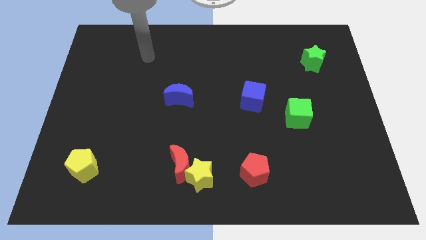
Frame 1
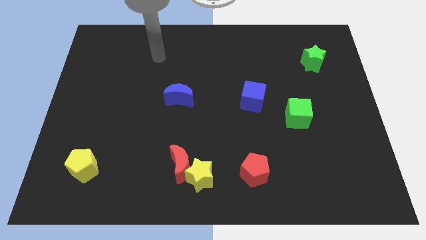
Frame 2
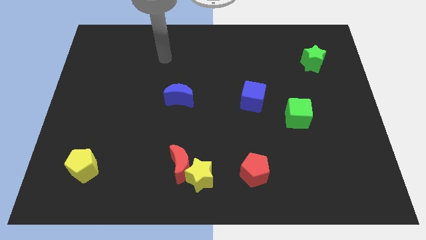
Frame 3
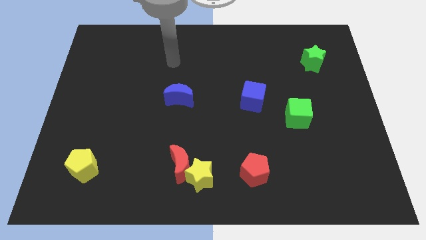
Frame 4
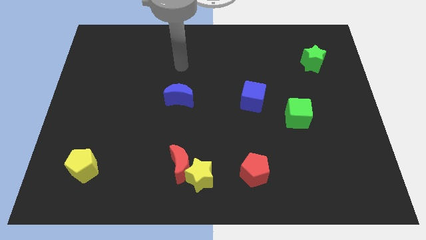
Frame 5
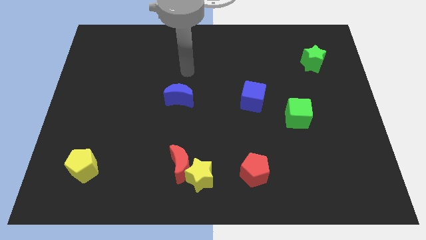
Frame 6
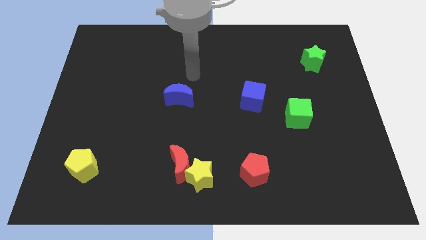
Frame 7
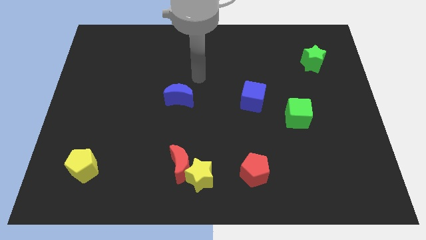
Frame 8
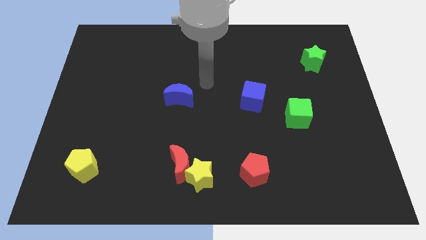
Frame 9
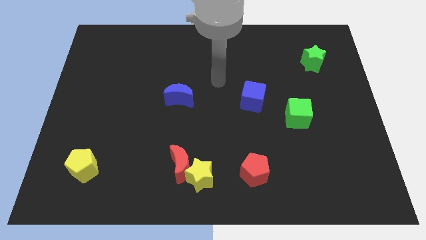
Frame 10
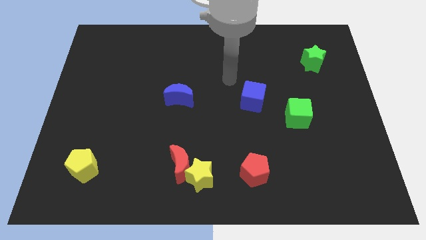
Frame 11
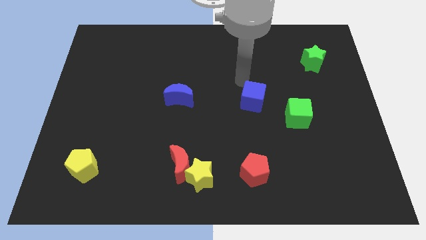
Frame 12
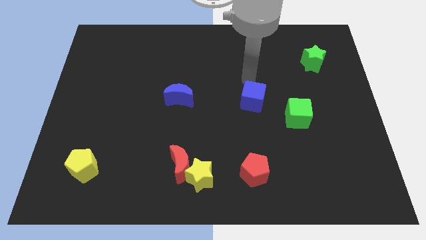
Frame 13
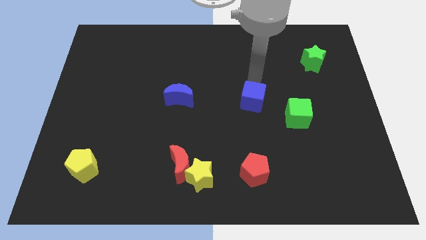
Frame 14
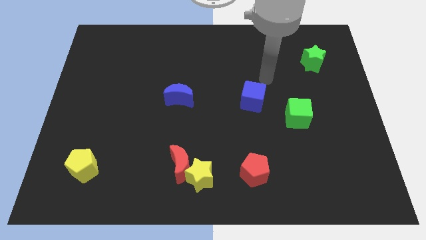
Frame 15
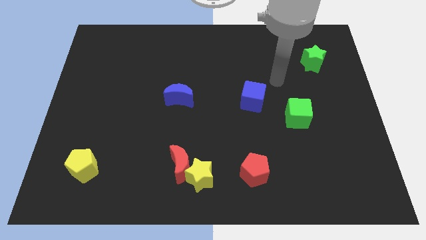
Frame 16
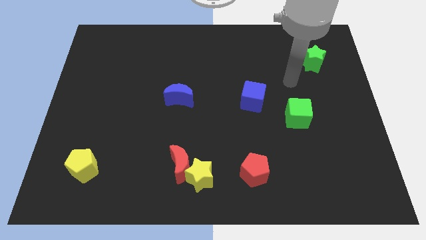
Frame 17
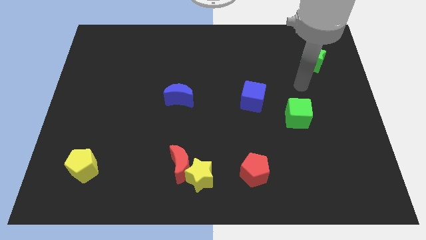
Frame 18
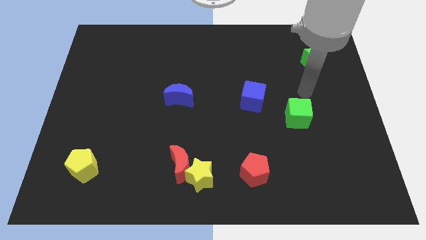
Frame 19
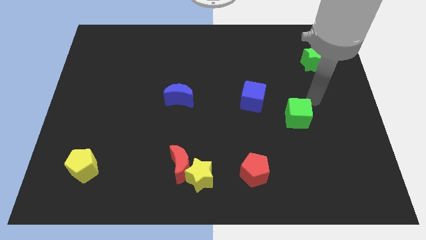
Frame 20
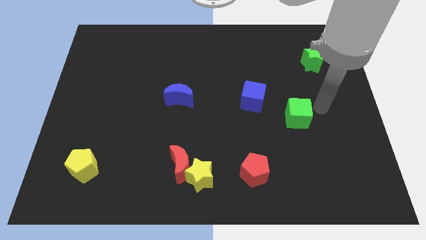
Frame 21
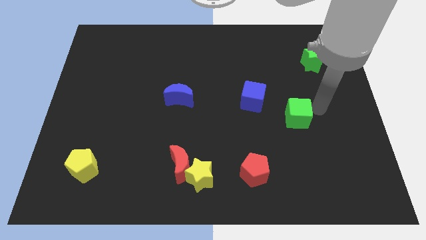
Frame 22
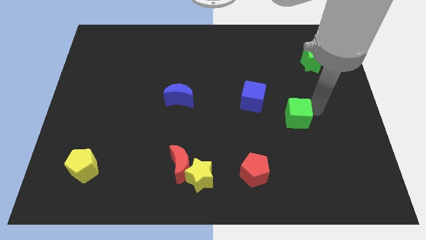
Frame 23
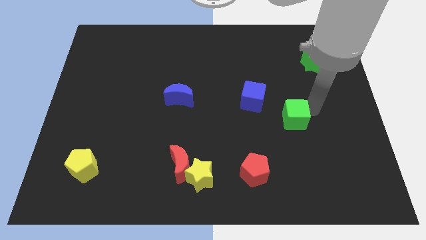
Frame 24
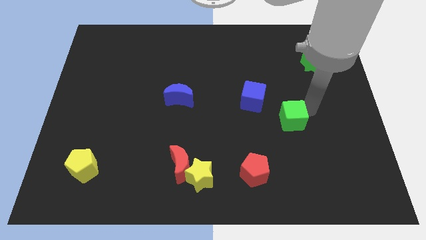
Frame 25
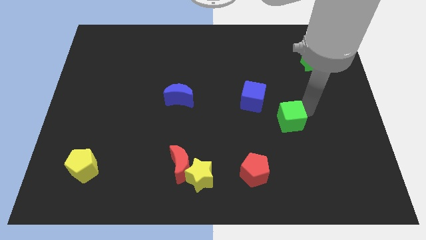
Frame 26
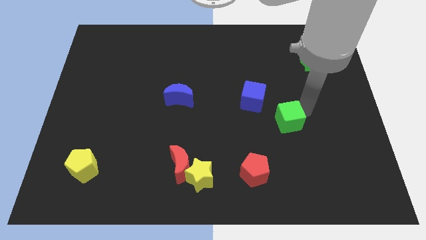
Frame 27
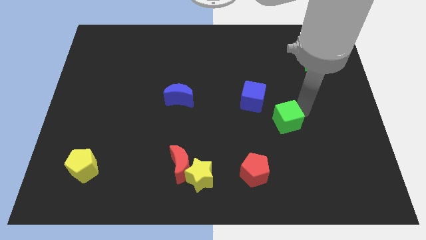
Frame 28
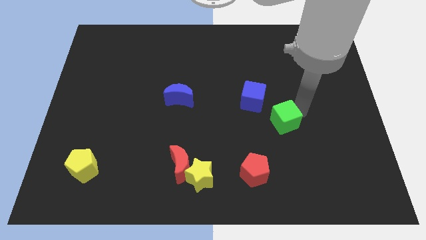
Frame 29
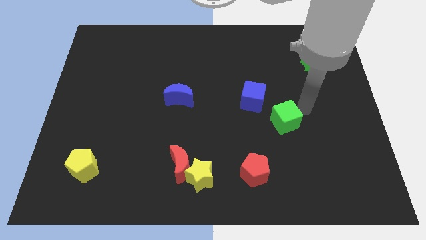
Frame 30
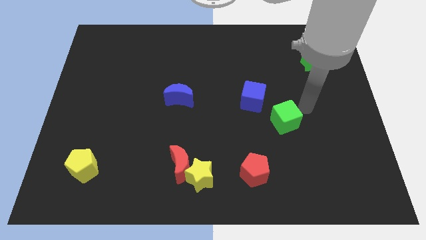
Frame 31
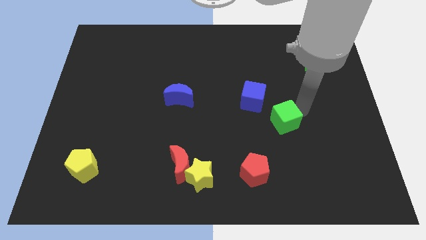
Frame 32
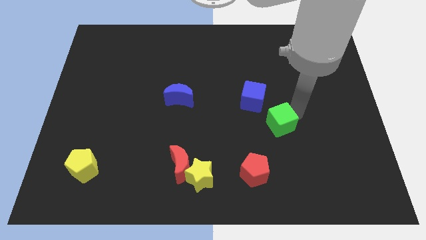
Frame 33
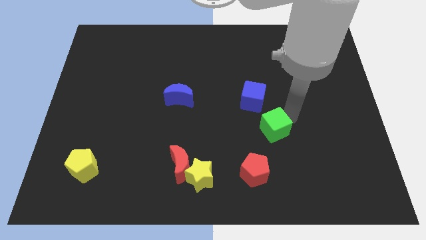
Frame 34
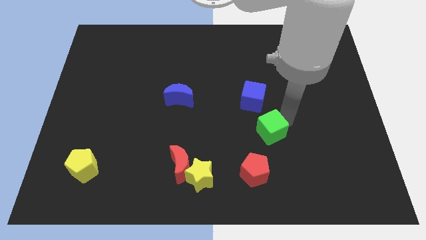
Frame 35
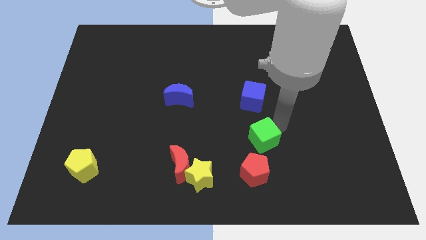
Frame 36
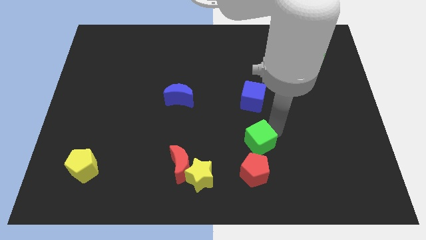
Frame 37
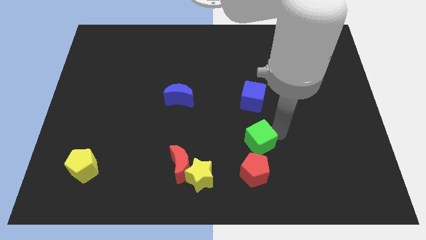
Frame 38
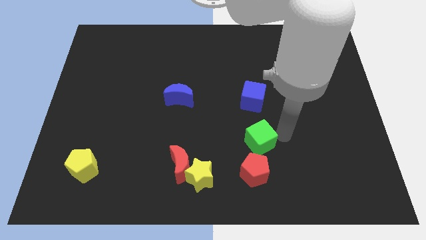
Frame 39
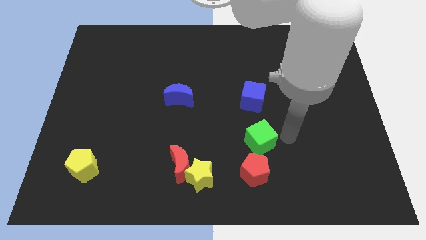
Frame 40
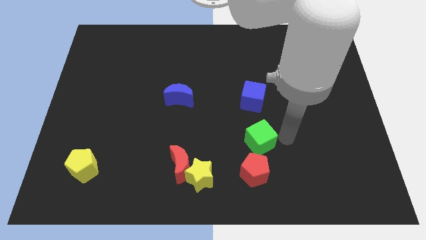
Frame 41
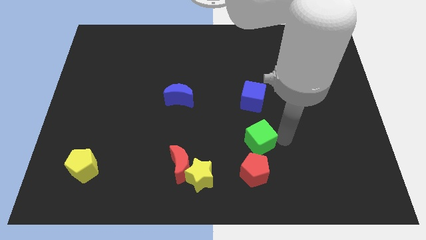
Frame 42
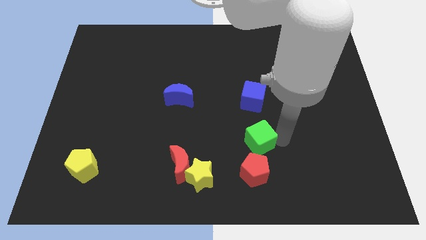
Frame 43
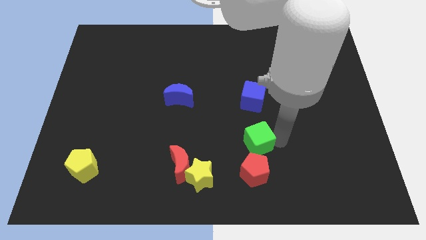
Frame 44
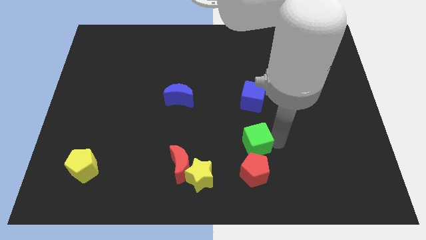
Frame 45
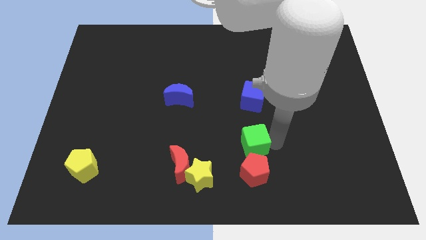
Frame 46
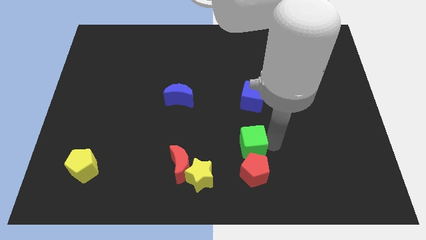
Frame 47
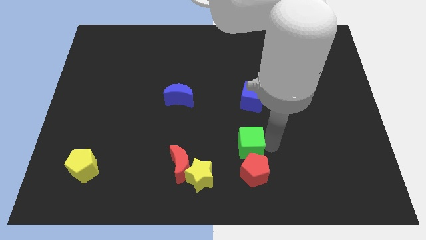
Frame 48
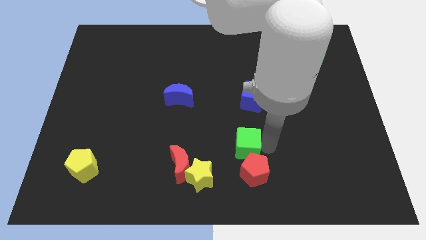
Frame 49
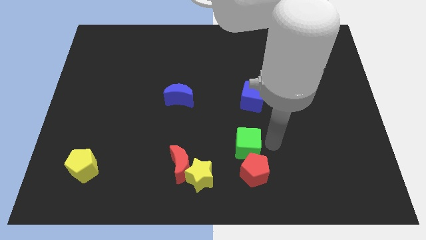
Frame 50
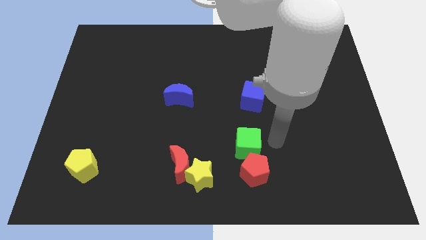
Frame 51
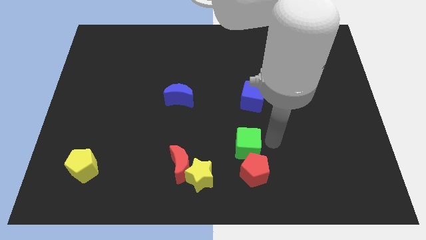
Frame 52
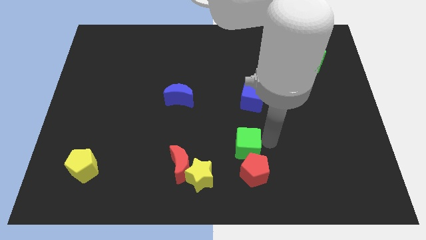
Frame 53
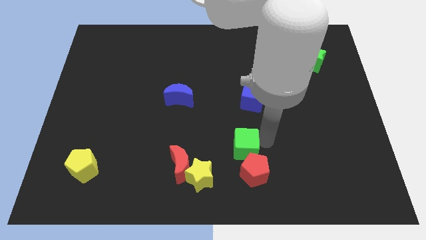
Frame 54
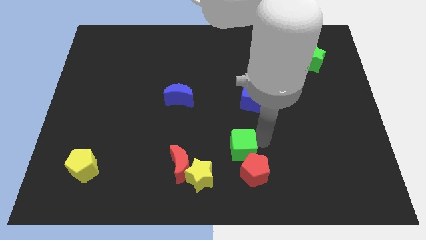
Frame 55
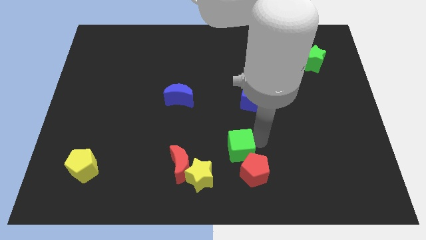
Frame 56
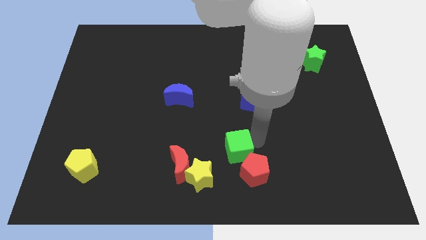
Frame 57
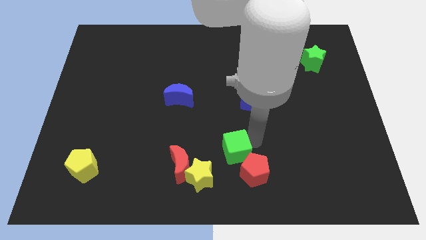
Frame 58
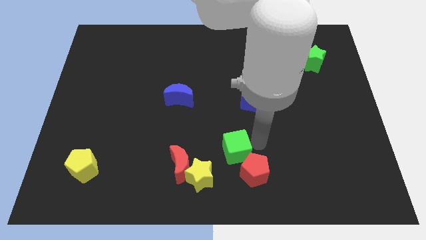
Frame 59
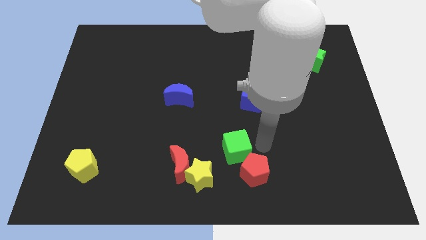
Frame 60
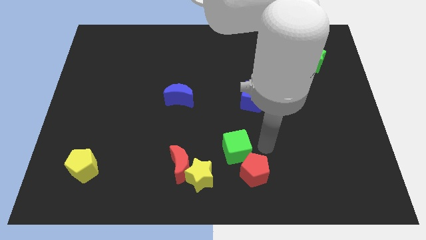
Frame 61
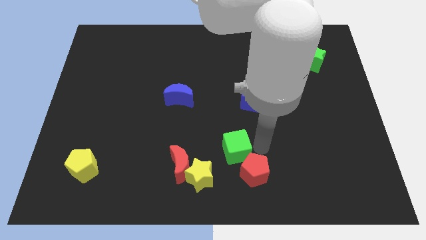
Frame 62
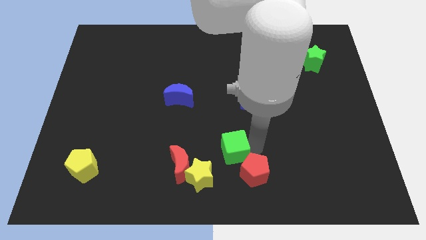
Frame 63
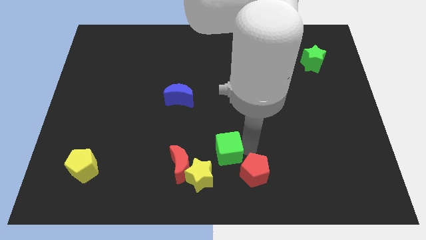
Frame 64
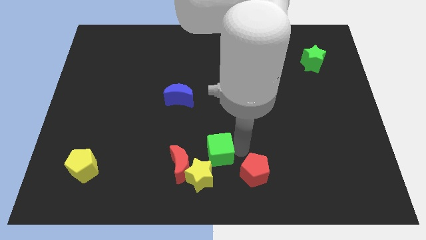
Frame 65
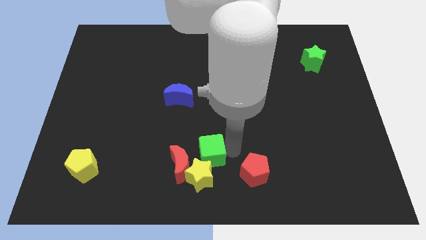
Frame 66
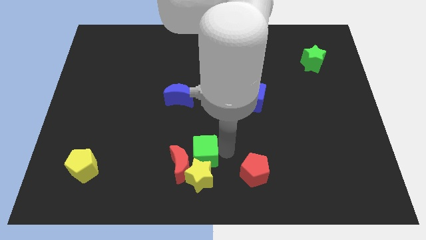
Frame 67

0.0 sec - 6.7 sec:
push the green cube towards the red moon

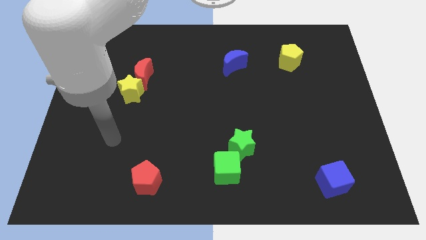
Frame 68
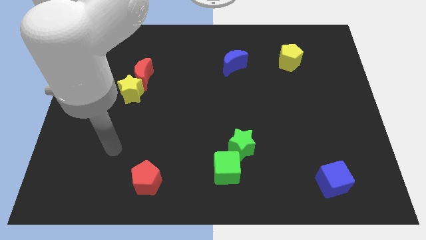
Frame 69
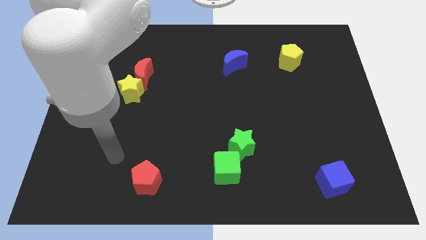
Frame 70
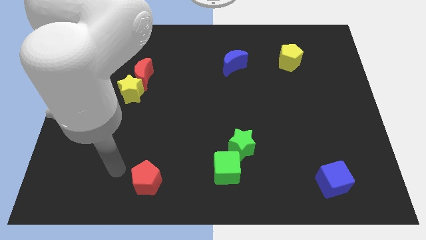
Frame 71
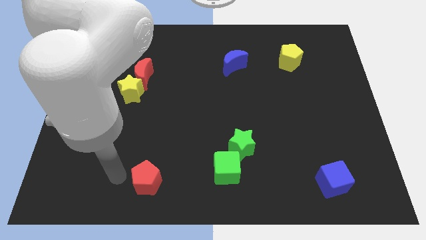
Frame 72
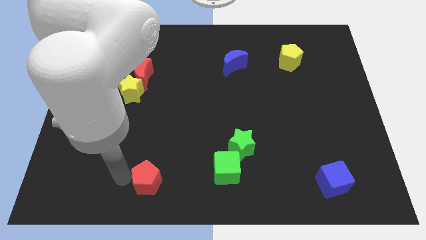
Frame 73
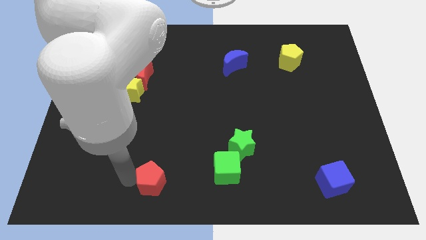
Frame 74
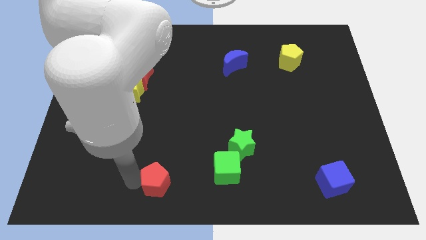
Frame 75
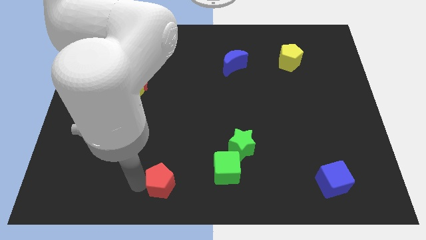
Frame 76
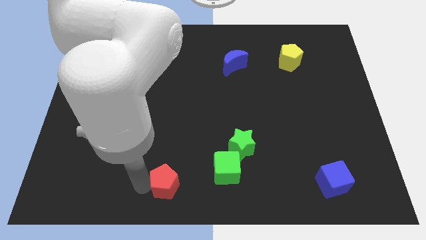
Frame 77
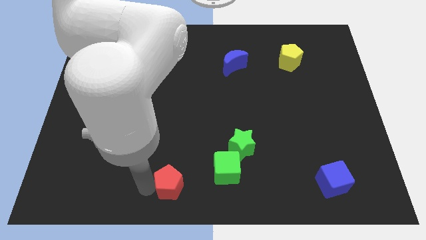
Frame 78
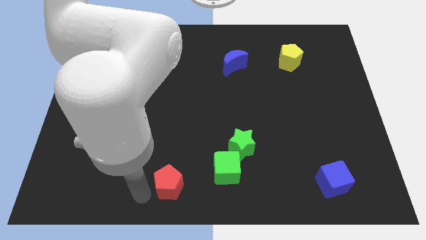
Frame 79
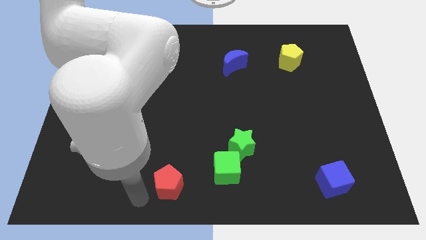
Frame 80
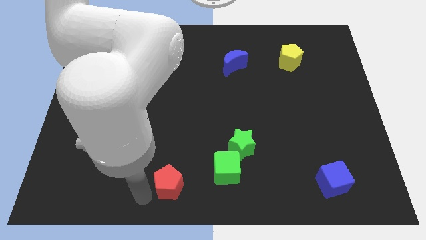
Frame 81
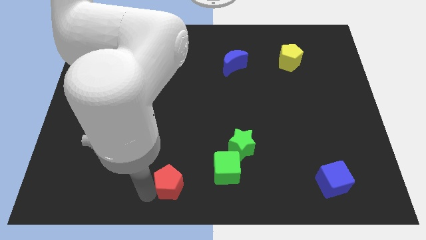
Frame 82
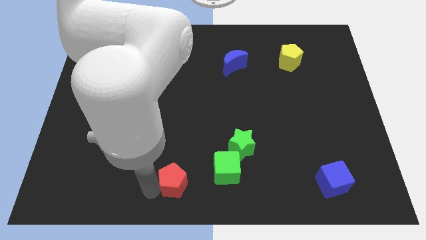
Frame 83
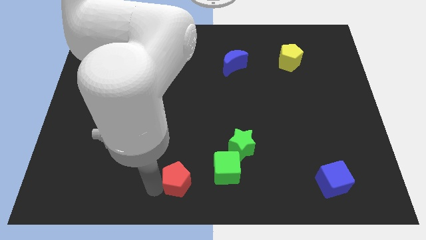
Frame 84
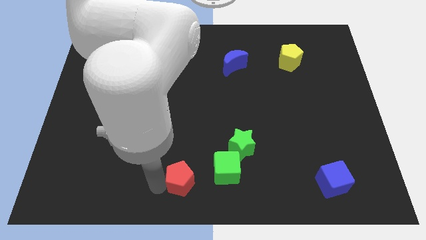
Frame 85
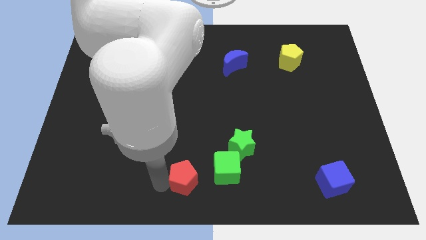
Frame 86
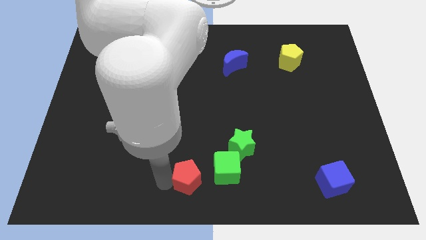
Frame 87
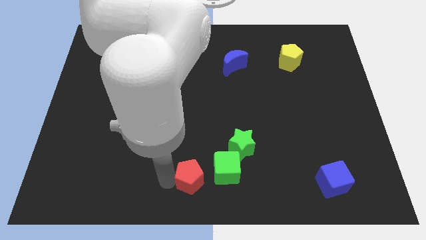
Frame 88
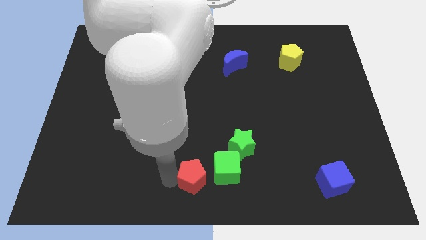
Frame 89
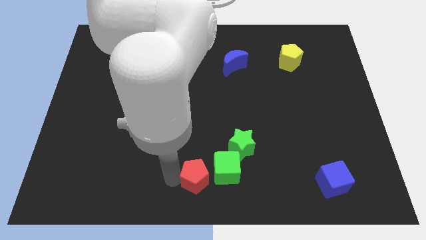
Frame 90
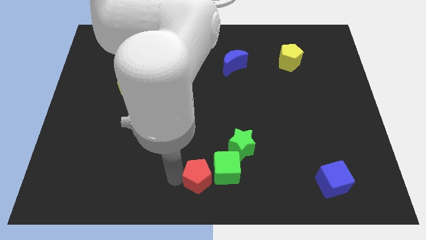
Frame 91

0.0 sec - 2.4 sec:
put the red pentagon close to the green cube
